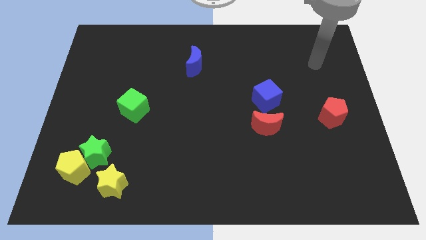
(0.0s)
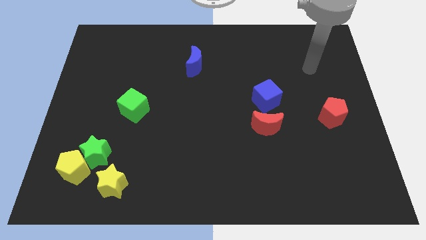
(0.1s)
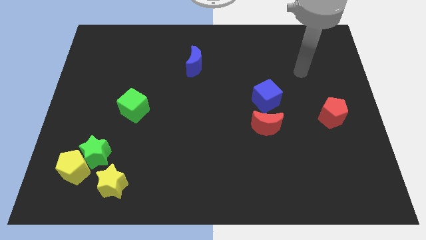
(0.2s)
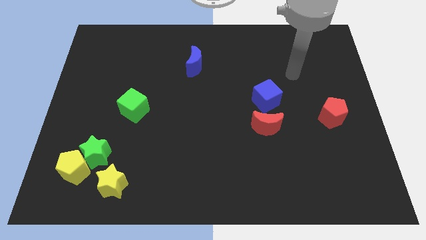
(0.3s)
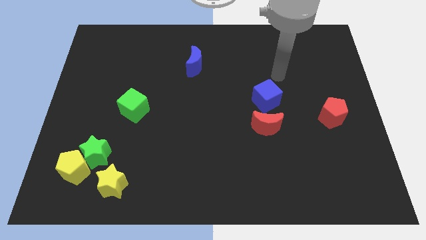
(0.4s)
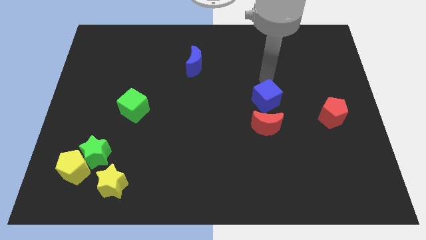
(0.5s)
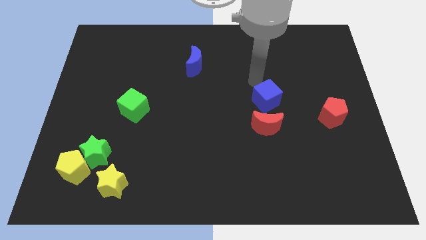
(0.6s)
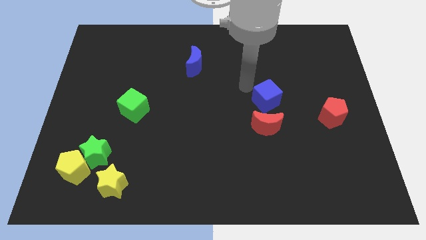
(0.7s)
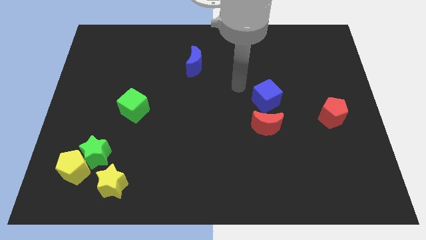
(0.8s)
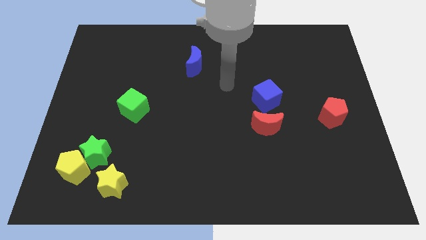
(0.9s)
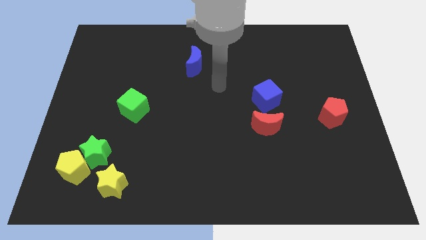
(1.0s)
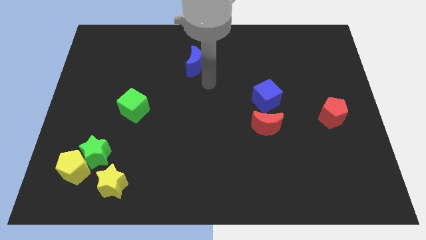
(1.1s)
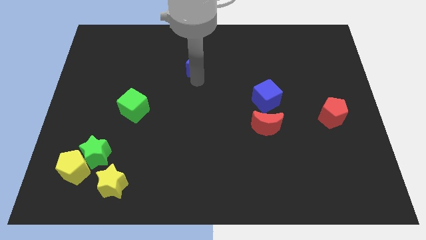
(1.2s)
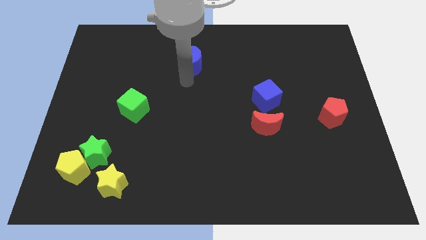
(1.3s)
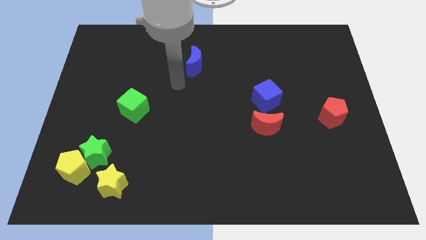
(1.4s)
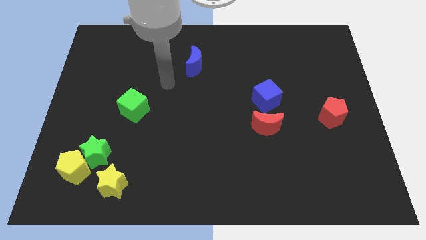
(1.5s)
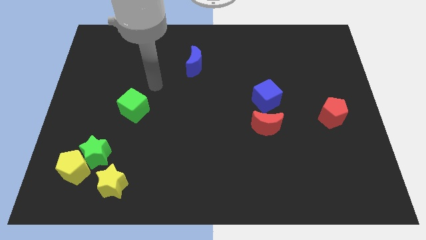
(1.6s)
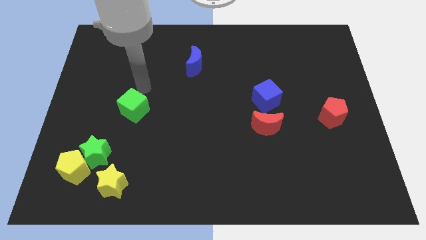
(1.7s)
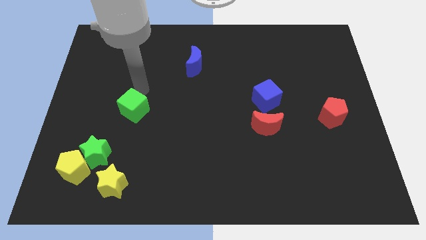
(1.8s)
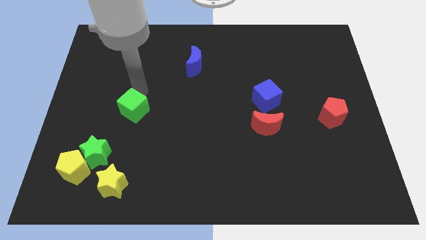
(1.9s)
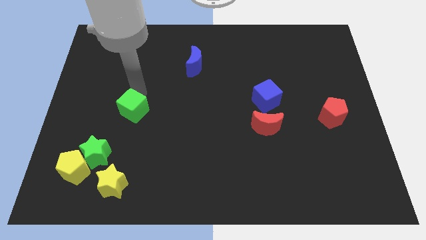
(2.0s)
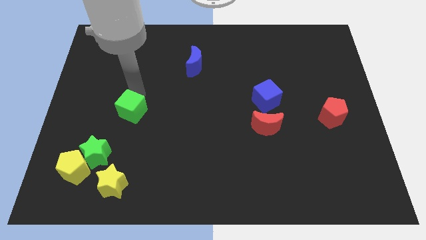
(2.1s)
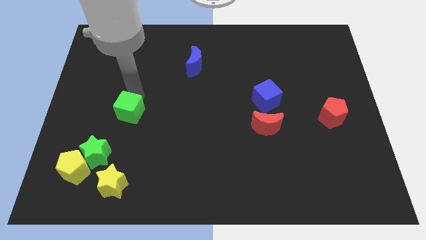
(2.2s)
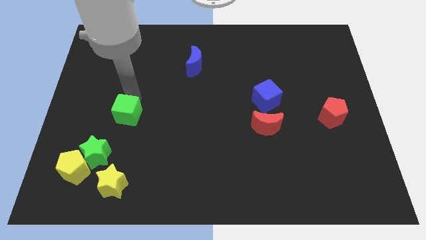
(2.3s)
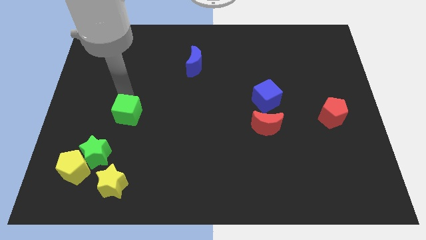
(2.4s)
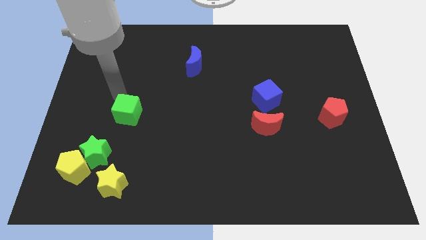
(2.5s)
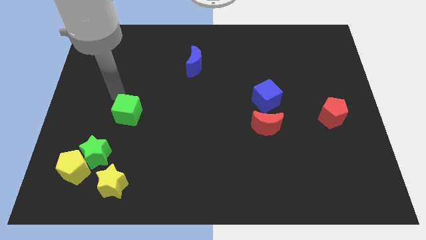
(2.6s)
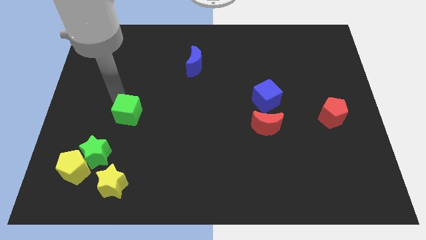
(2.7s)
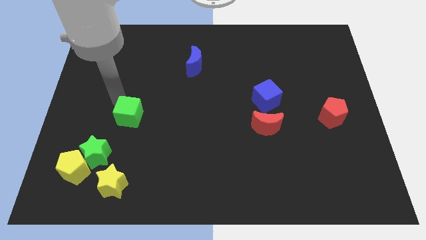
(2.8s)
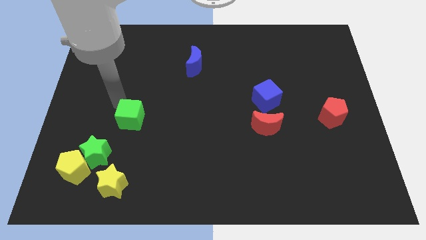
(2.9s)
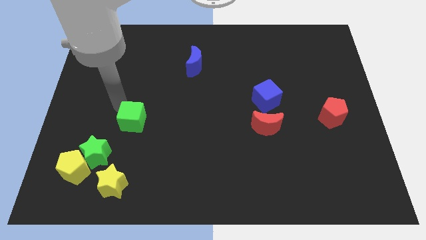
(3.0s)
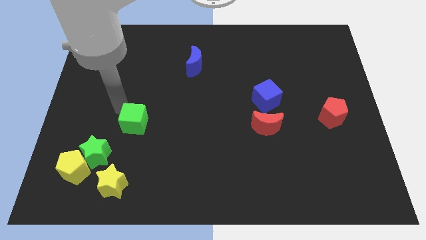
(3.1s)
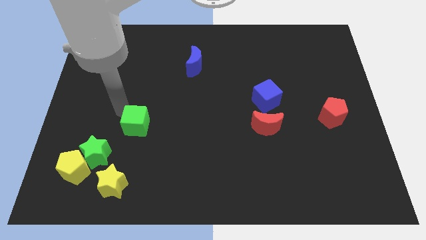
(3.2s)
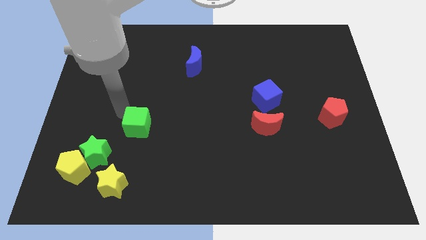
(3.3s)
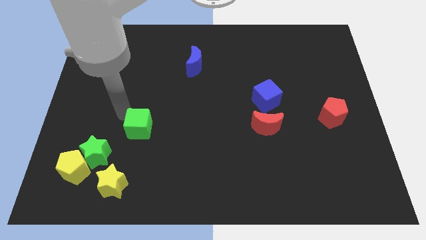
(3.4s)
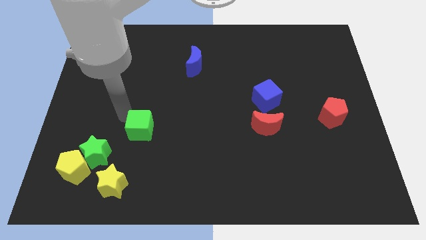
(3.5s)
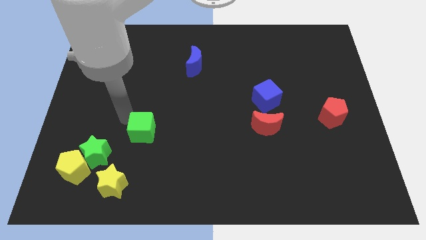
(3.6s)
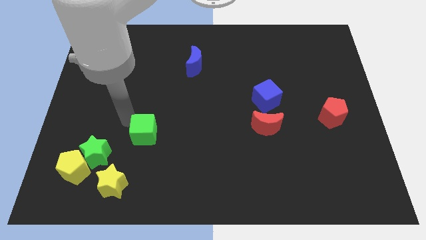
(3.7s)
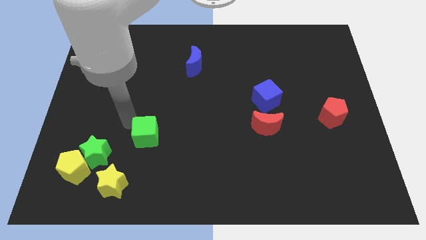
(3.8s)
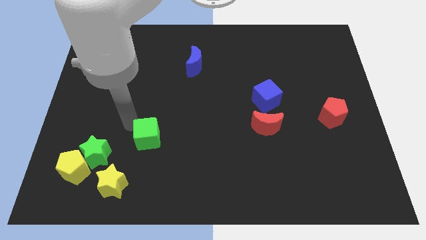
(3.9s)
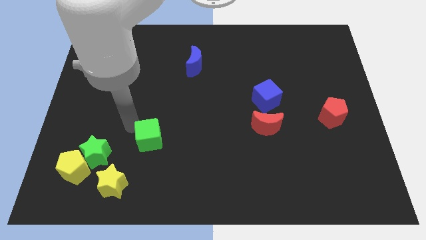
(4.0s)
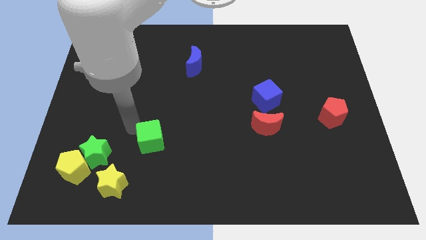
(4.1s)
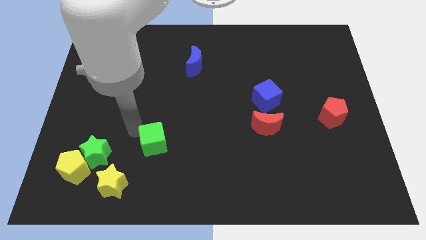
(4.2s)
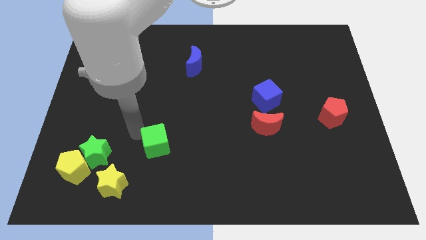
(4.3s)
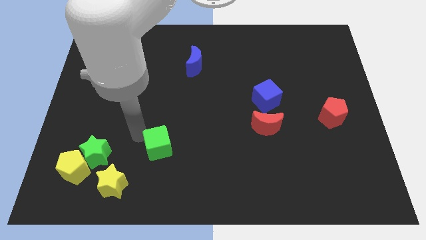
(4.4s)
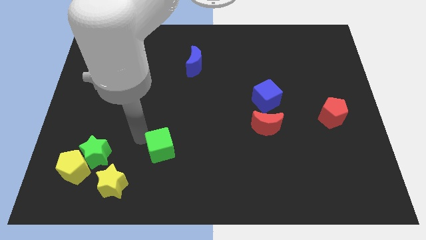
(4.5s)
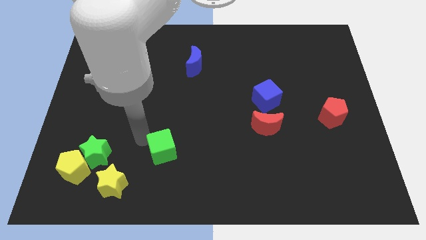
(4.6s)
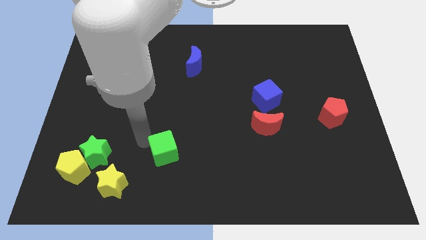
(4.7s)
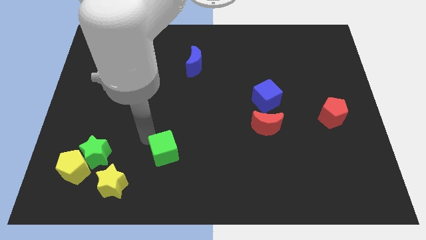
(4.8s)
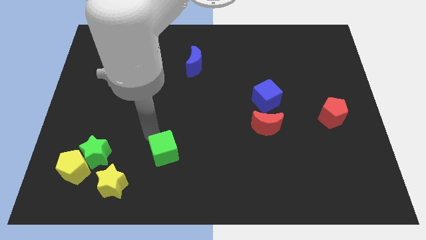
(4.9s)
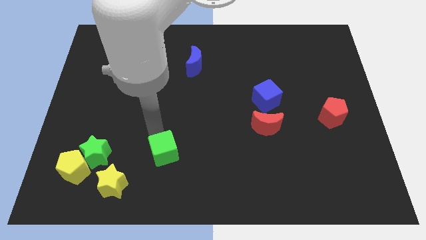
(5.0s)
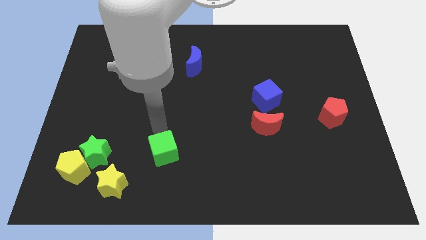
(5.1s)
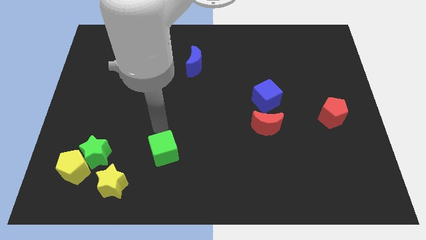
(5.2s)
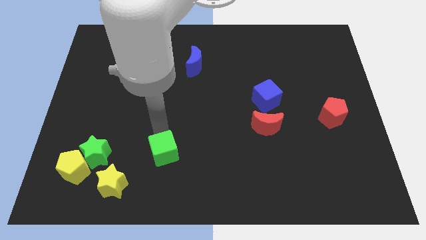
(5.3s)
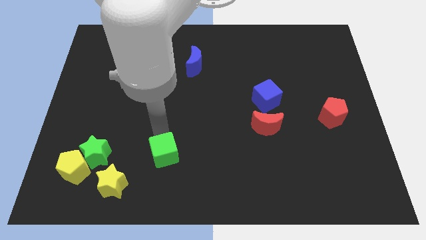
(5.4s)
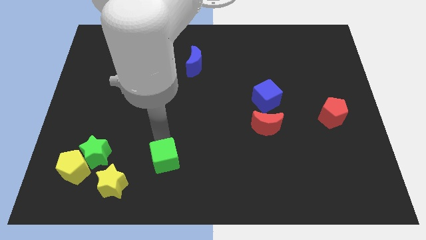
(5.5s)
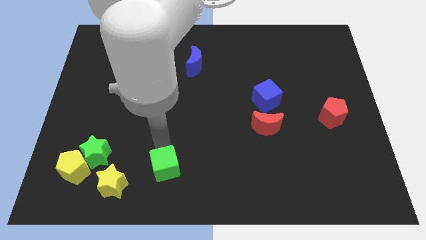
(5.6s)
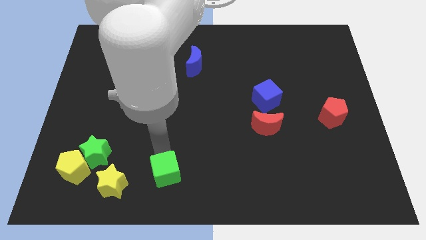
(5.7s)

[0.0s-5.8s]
put the green cube to the bottom side

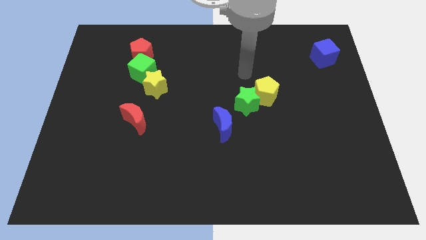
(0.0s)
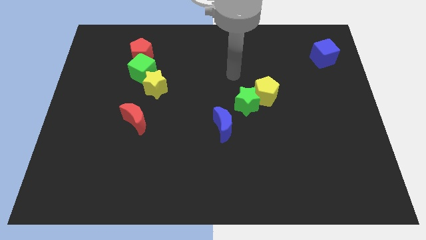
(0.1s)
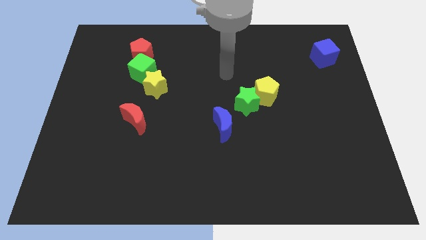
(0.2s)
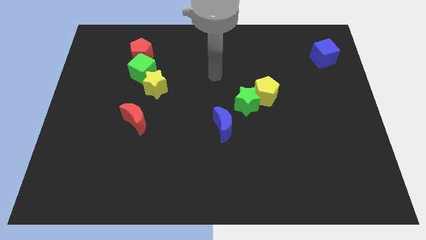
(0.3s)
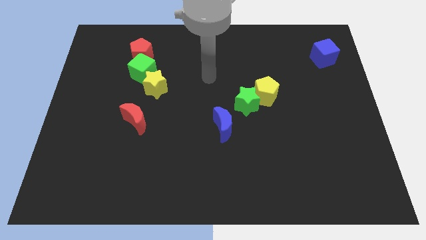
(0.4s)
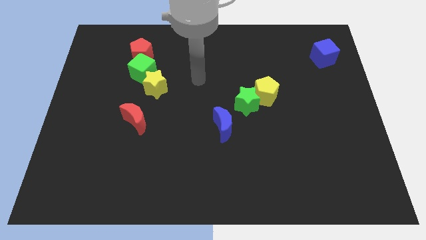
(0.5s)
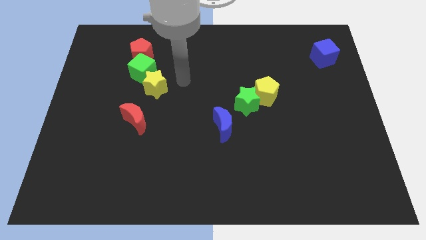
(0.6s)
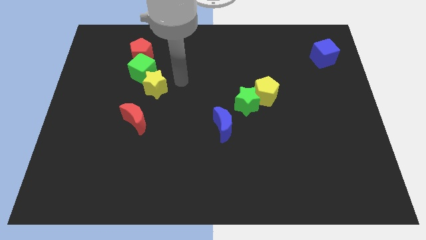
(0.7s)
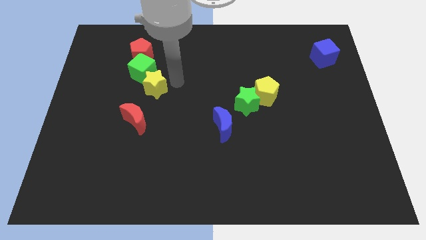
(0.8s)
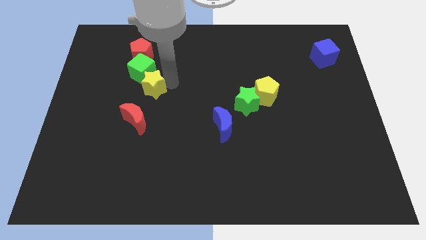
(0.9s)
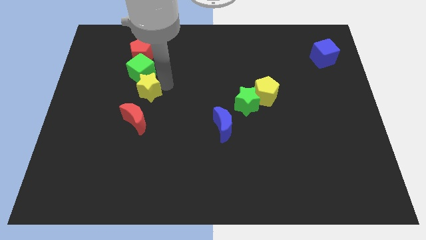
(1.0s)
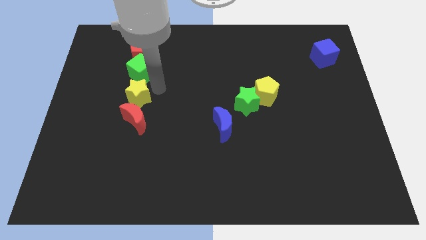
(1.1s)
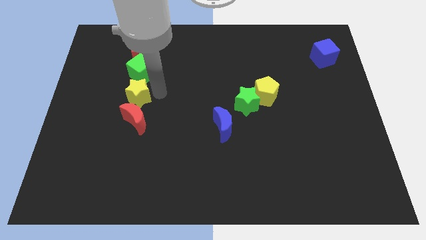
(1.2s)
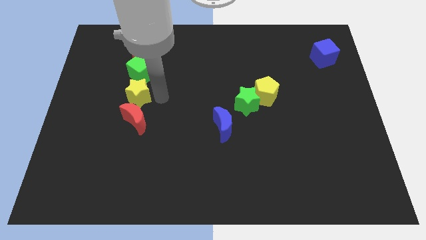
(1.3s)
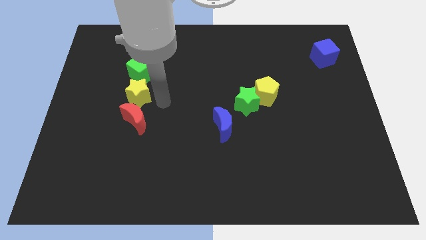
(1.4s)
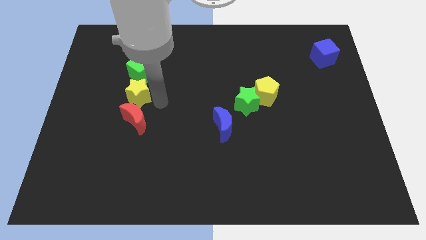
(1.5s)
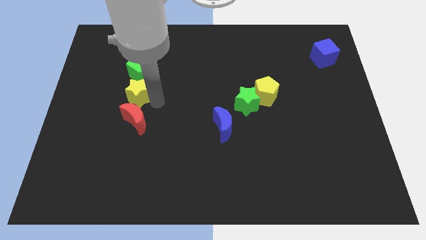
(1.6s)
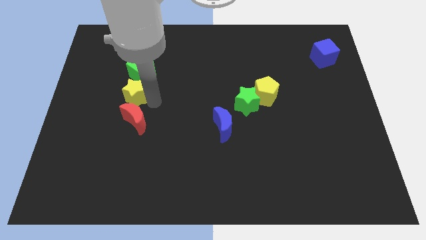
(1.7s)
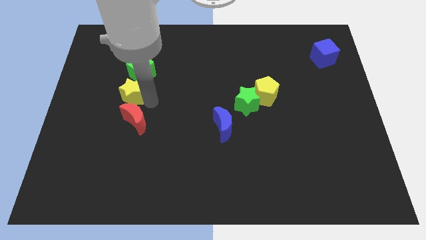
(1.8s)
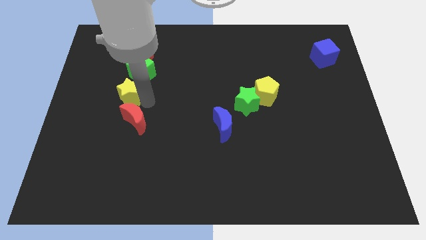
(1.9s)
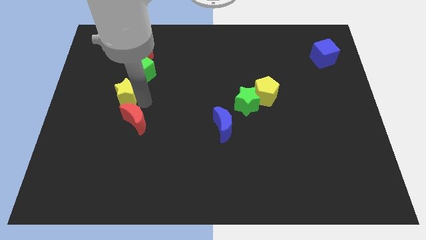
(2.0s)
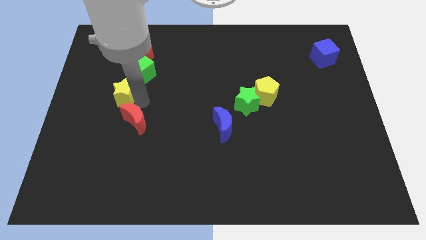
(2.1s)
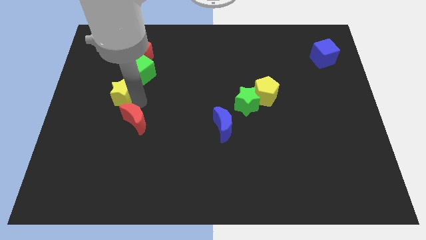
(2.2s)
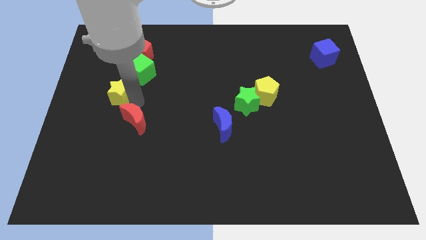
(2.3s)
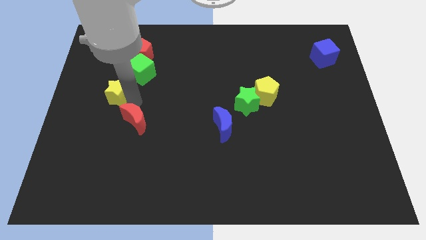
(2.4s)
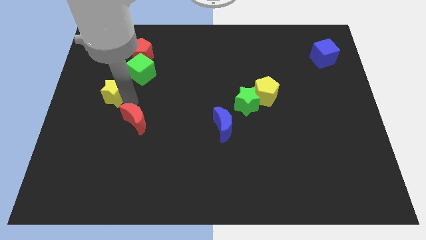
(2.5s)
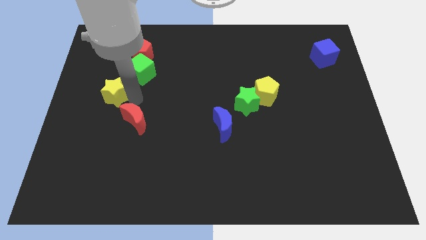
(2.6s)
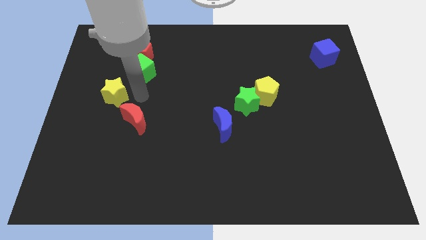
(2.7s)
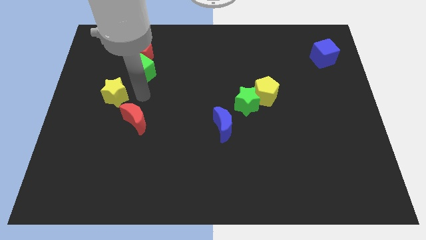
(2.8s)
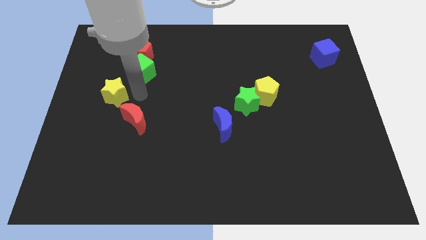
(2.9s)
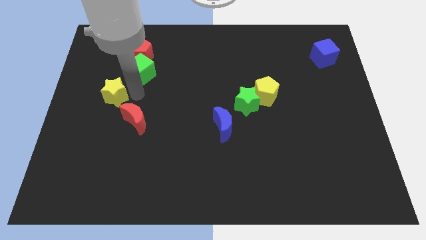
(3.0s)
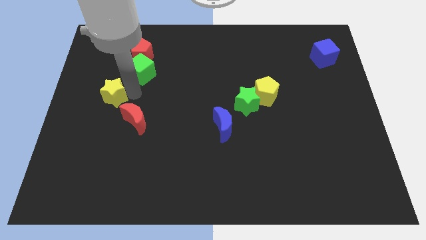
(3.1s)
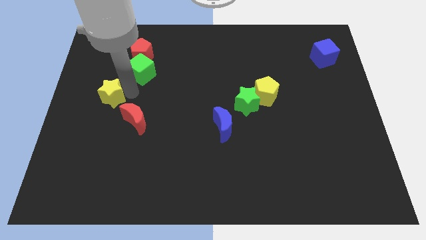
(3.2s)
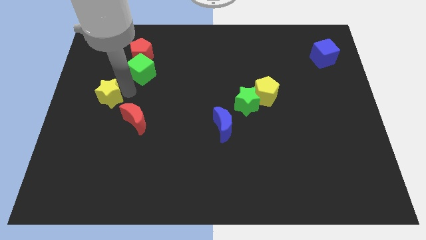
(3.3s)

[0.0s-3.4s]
slide the yellow star to the left side of the board
